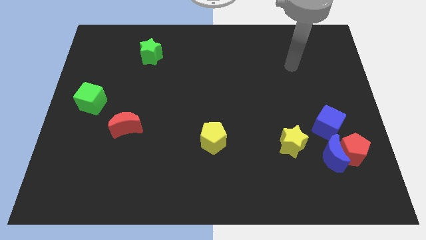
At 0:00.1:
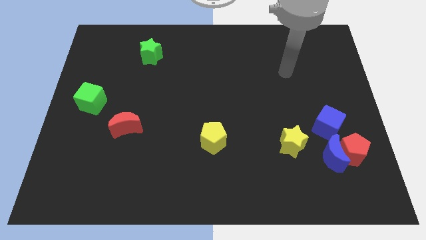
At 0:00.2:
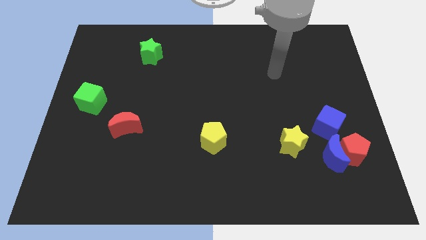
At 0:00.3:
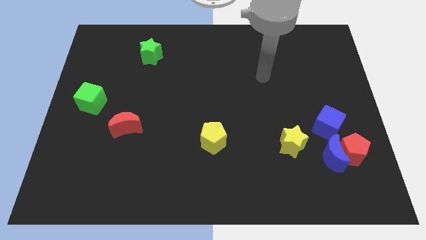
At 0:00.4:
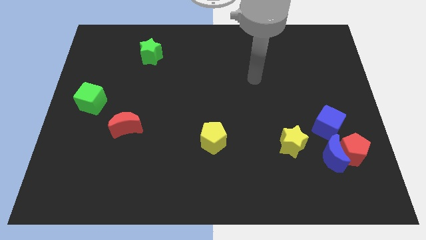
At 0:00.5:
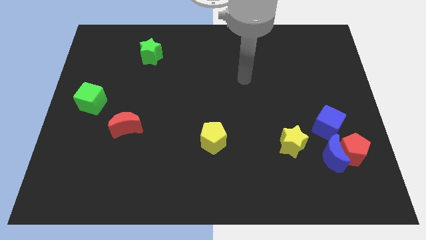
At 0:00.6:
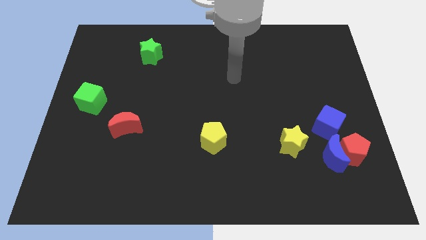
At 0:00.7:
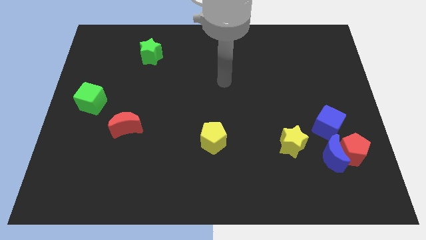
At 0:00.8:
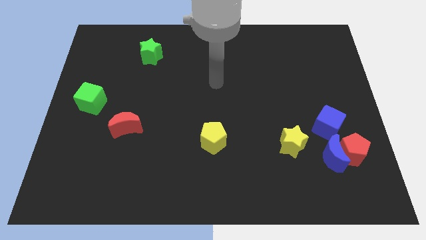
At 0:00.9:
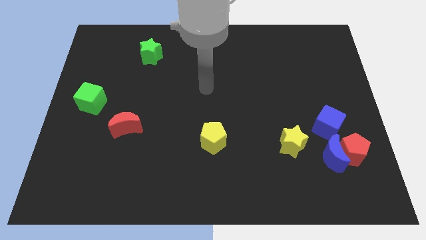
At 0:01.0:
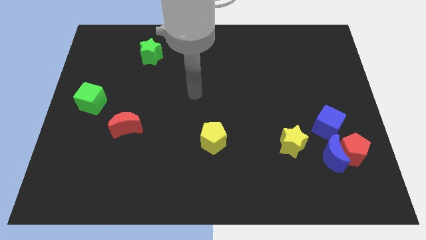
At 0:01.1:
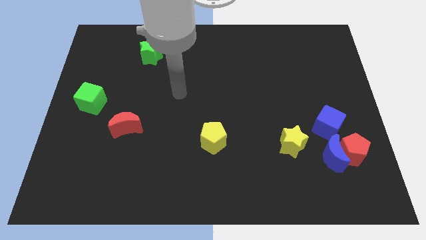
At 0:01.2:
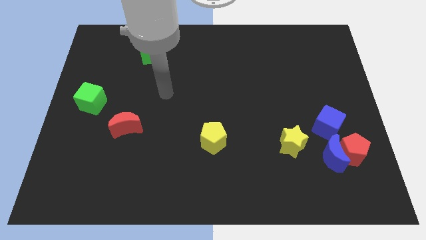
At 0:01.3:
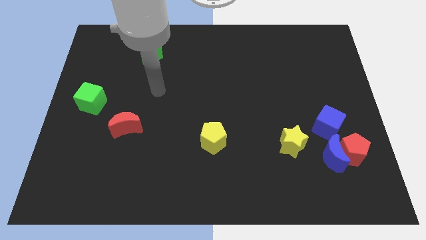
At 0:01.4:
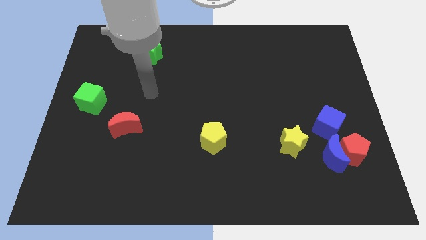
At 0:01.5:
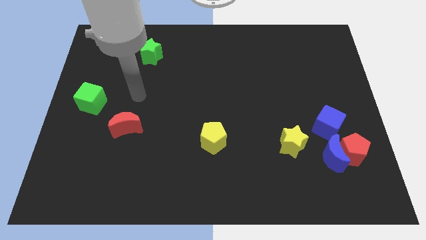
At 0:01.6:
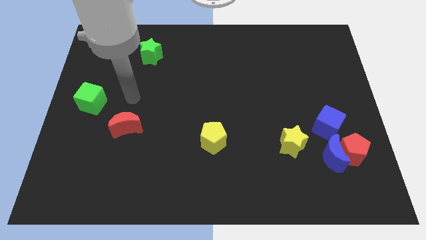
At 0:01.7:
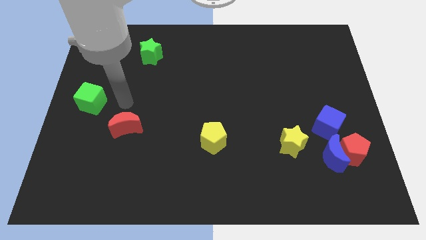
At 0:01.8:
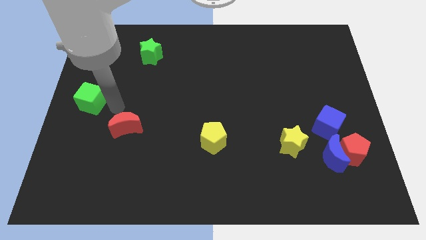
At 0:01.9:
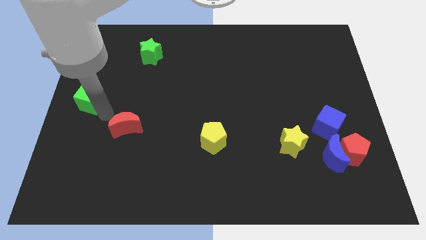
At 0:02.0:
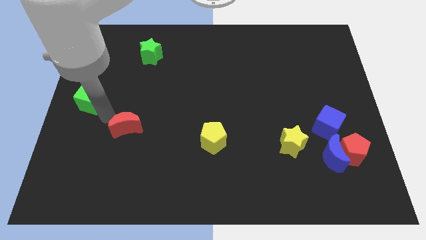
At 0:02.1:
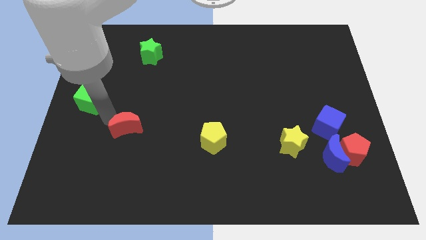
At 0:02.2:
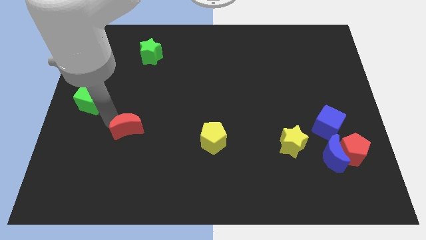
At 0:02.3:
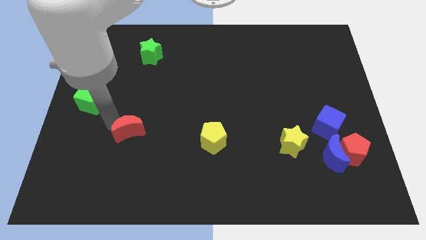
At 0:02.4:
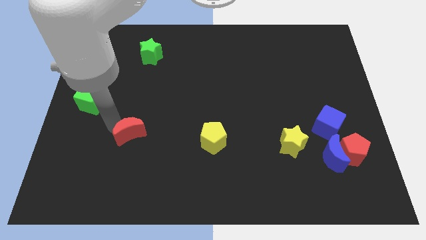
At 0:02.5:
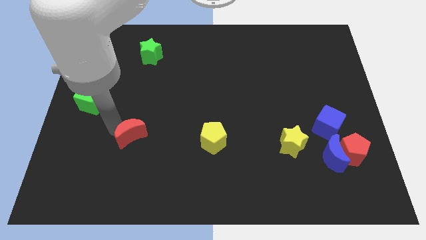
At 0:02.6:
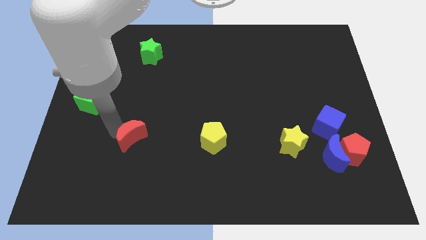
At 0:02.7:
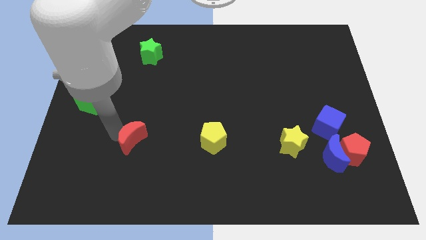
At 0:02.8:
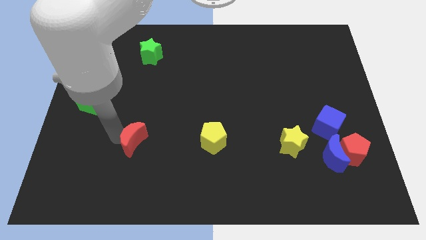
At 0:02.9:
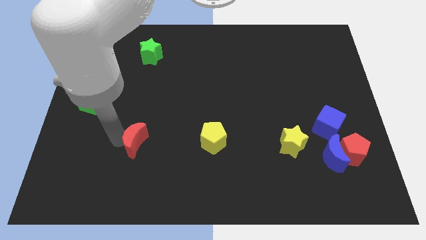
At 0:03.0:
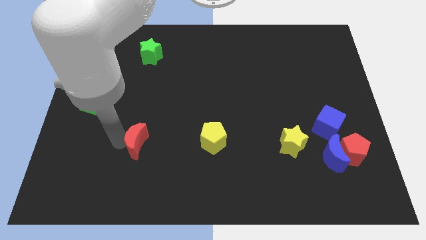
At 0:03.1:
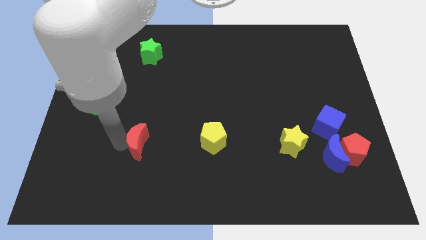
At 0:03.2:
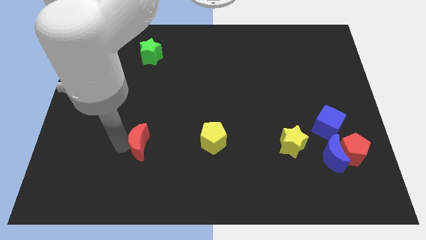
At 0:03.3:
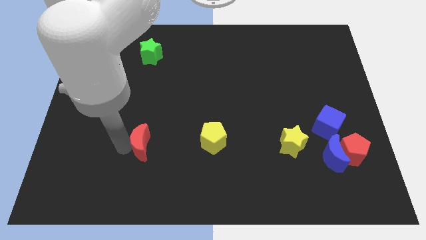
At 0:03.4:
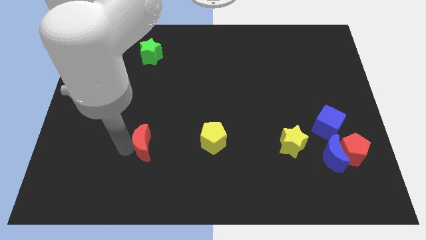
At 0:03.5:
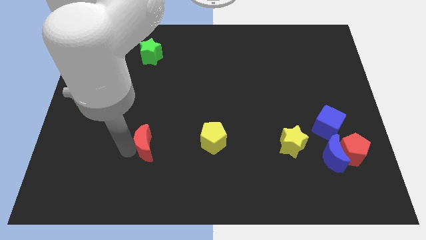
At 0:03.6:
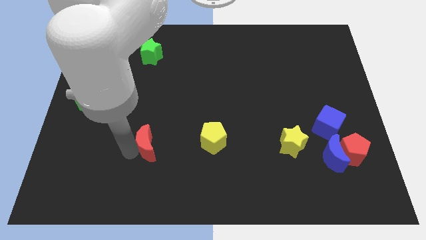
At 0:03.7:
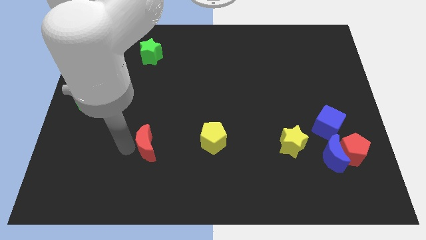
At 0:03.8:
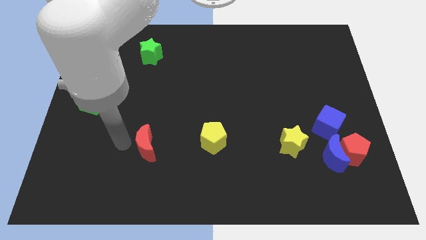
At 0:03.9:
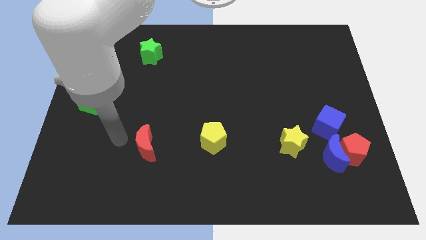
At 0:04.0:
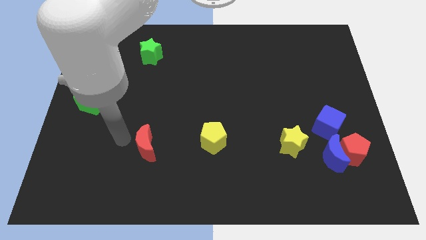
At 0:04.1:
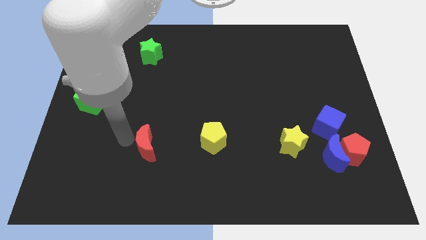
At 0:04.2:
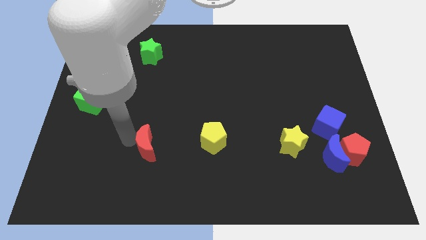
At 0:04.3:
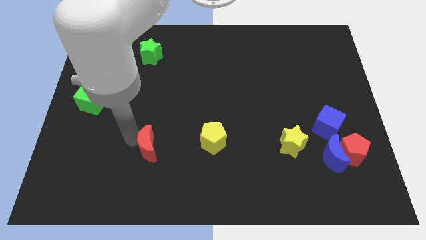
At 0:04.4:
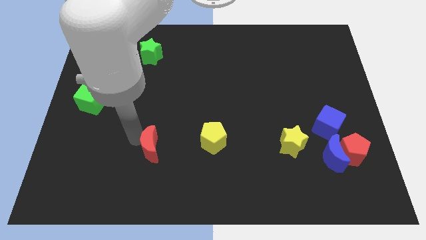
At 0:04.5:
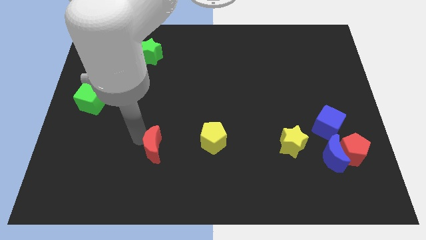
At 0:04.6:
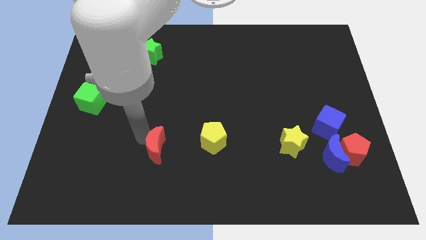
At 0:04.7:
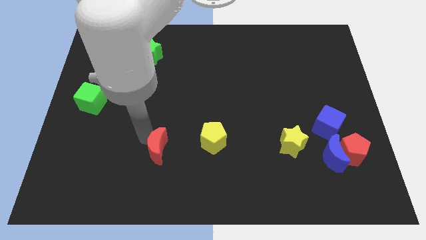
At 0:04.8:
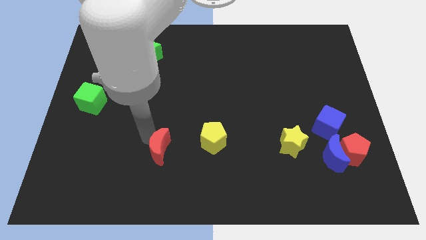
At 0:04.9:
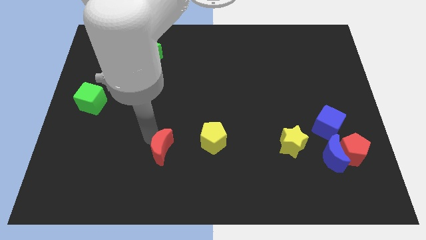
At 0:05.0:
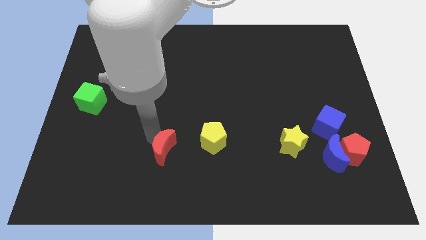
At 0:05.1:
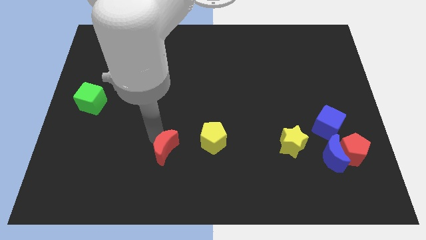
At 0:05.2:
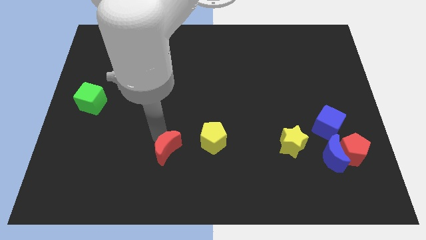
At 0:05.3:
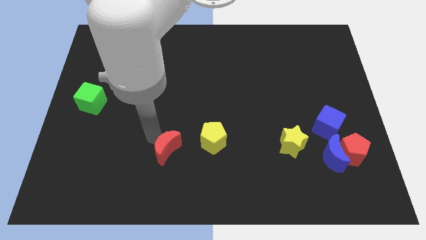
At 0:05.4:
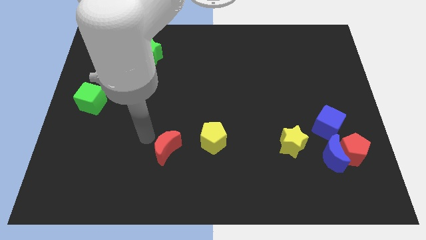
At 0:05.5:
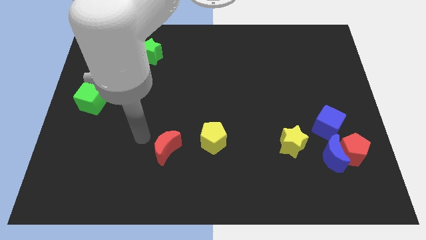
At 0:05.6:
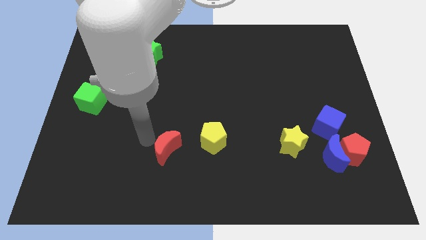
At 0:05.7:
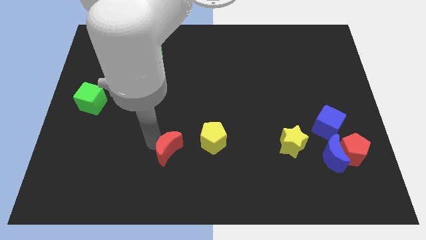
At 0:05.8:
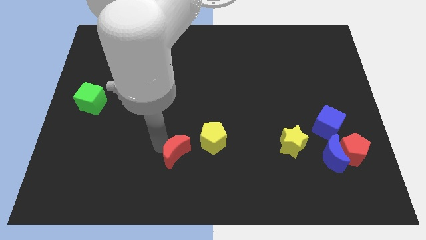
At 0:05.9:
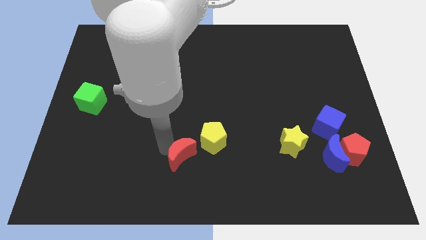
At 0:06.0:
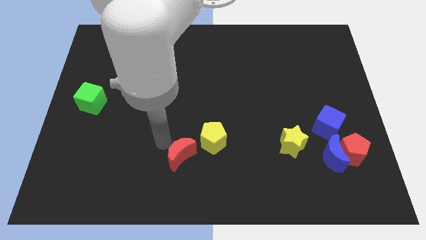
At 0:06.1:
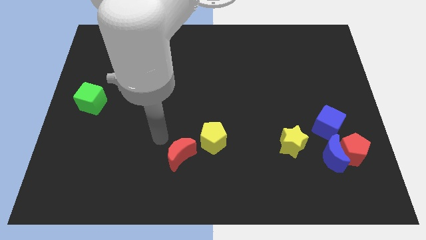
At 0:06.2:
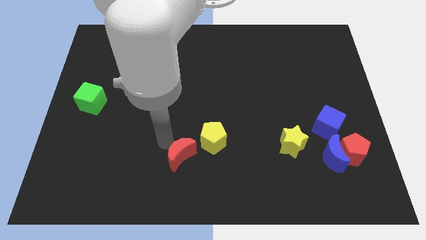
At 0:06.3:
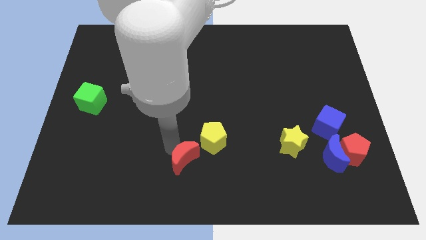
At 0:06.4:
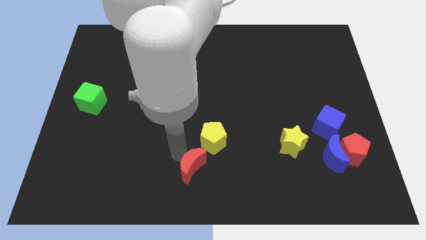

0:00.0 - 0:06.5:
put the red moon to the bottom side of the yellow pentagon

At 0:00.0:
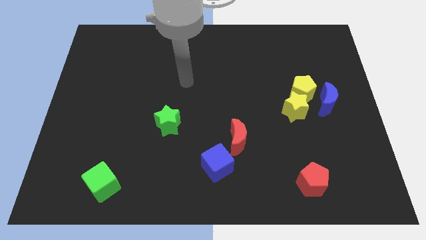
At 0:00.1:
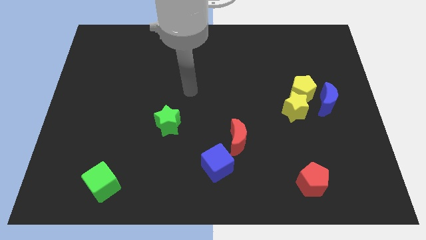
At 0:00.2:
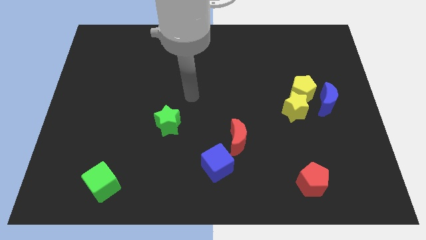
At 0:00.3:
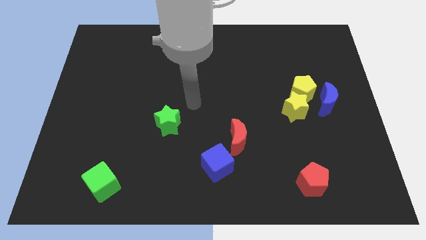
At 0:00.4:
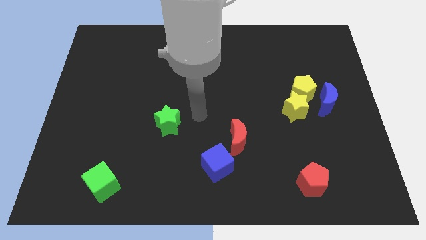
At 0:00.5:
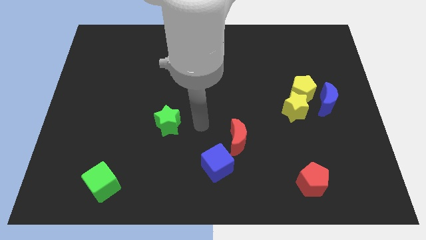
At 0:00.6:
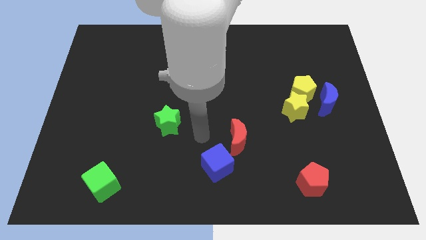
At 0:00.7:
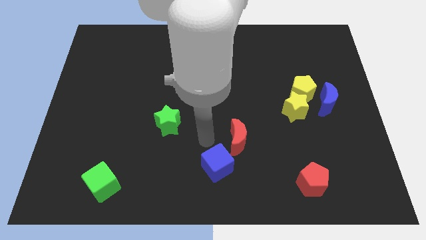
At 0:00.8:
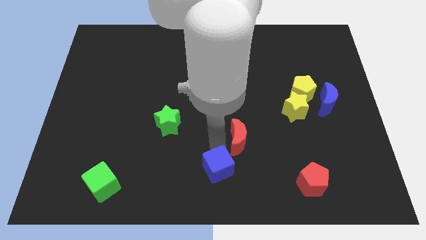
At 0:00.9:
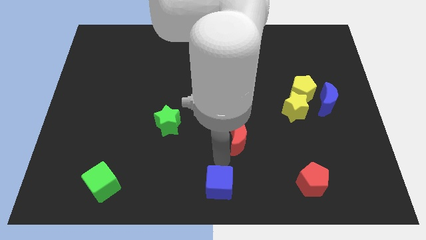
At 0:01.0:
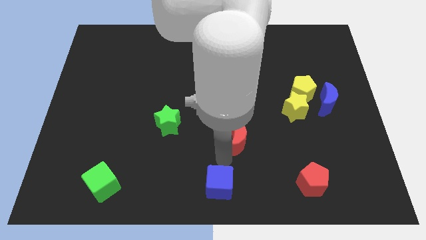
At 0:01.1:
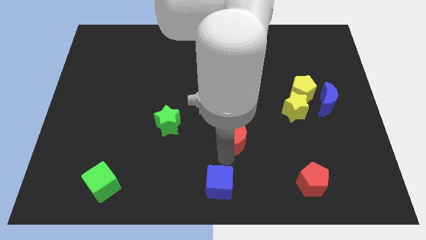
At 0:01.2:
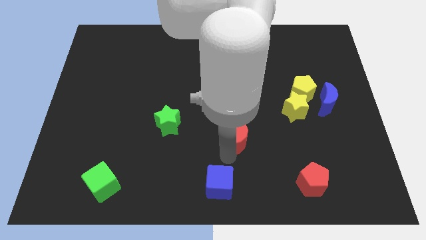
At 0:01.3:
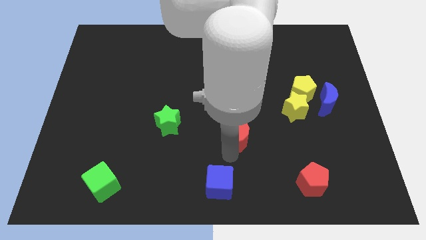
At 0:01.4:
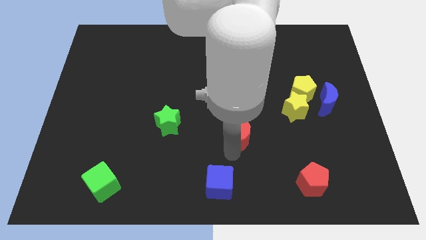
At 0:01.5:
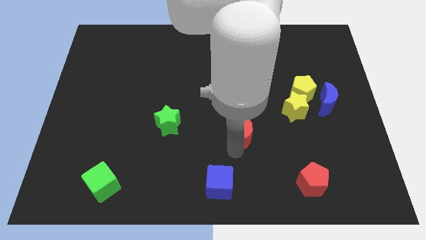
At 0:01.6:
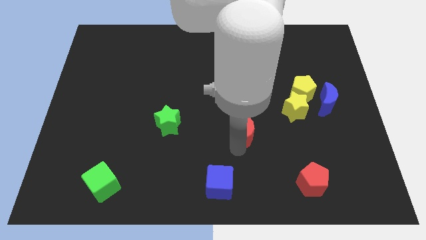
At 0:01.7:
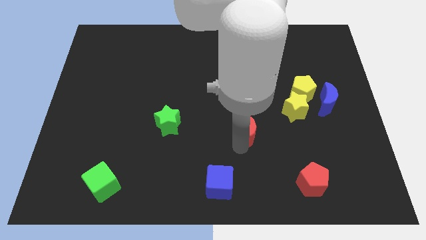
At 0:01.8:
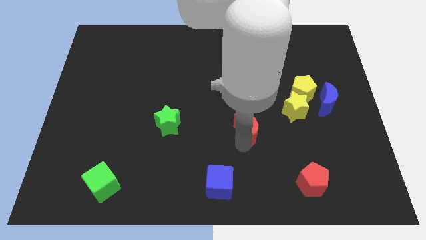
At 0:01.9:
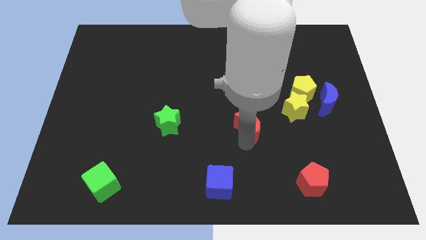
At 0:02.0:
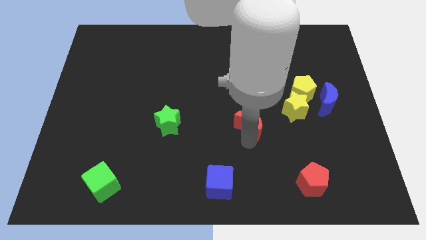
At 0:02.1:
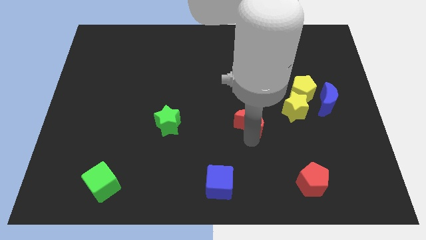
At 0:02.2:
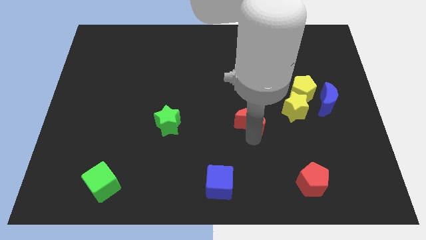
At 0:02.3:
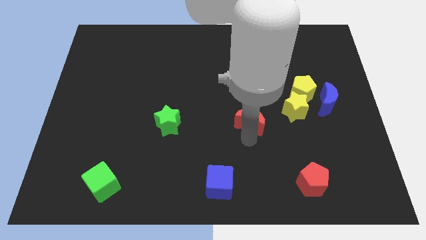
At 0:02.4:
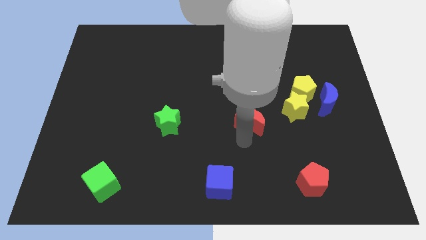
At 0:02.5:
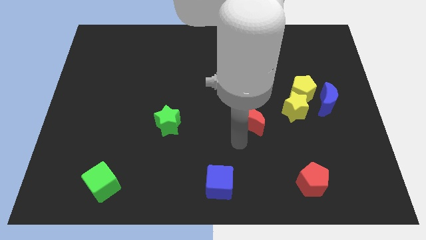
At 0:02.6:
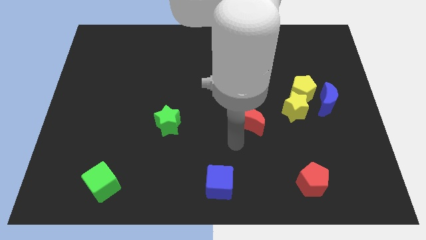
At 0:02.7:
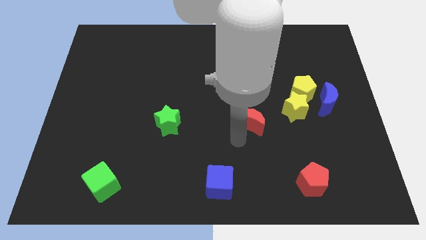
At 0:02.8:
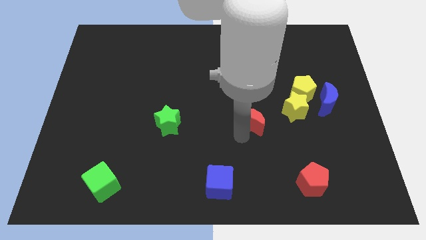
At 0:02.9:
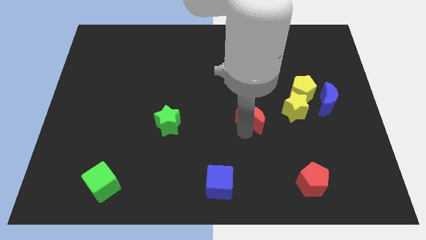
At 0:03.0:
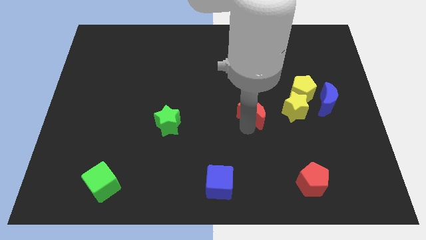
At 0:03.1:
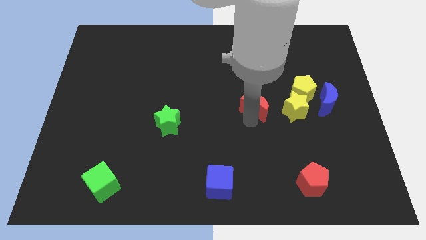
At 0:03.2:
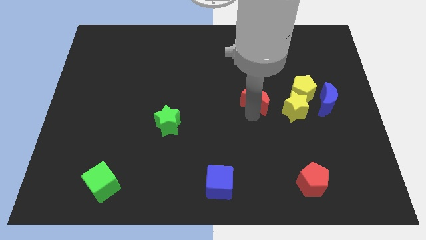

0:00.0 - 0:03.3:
push the red moon to the top left of the yellow star
